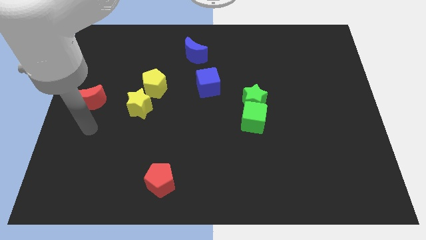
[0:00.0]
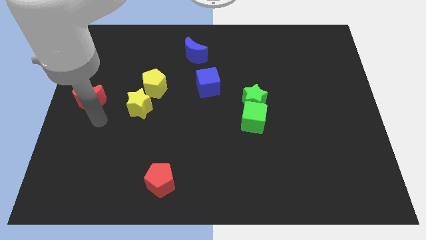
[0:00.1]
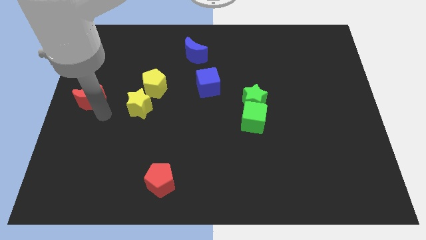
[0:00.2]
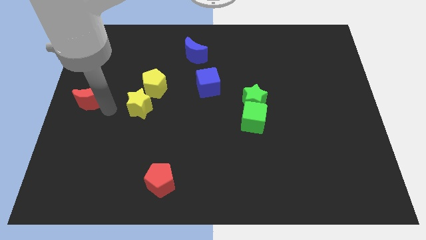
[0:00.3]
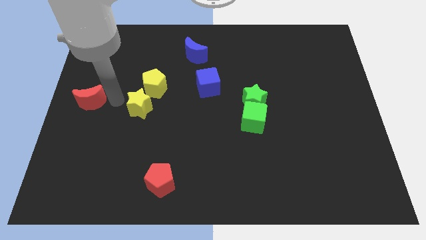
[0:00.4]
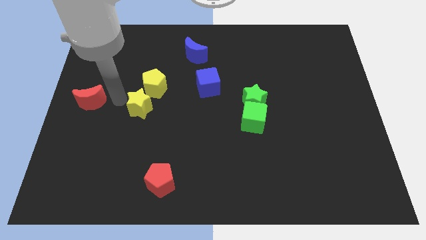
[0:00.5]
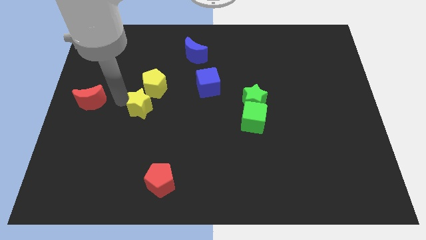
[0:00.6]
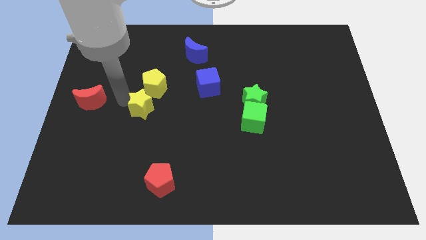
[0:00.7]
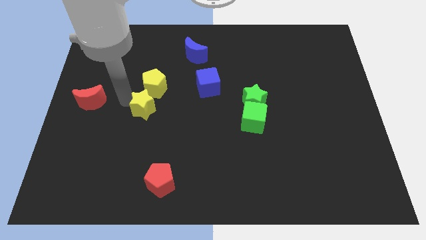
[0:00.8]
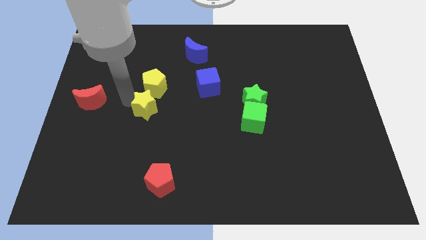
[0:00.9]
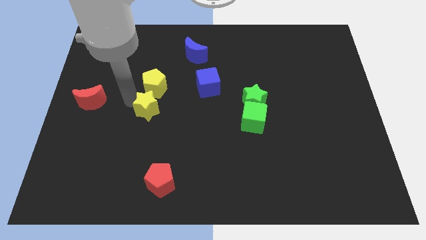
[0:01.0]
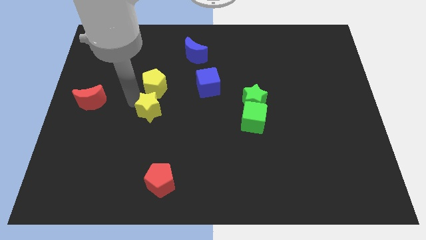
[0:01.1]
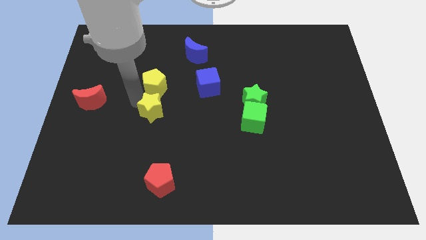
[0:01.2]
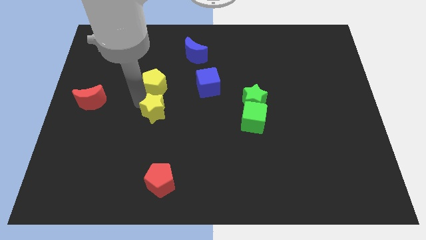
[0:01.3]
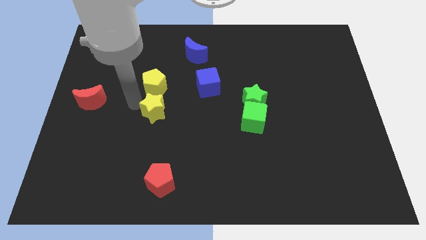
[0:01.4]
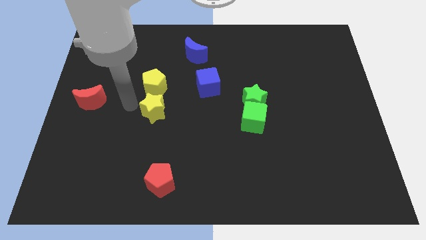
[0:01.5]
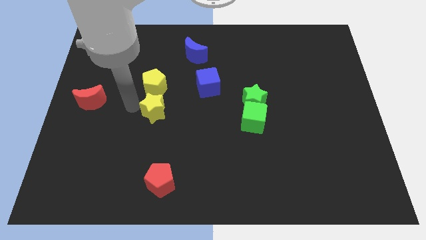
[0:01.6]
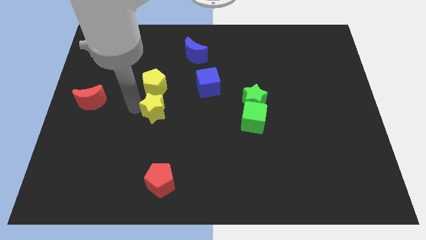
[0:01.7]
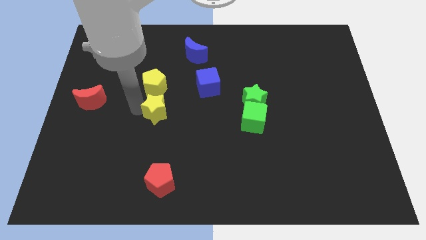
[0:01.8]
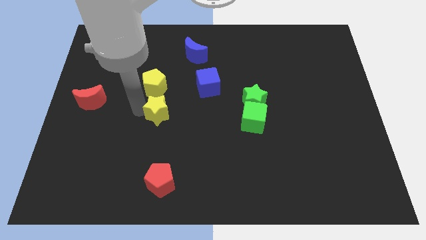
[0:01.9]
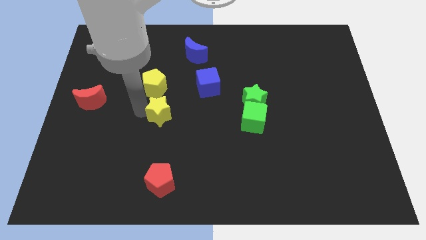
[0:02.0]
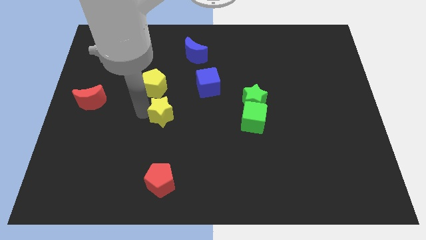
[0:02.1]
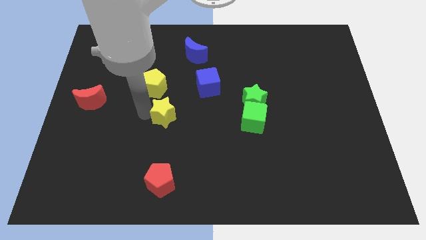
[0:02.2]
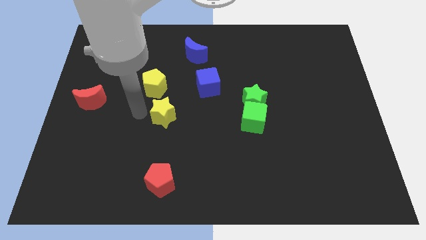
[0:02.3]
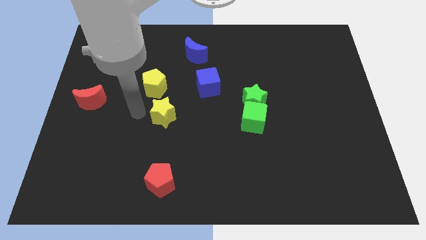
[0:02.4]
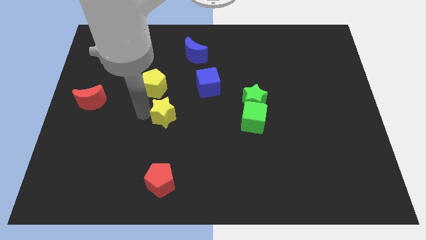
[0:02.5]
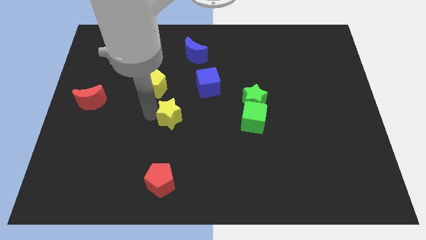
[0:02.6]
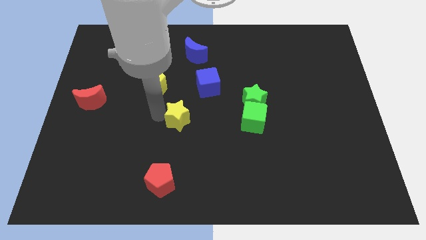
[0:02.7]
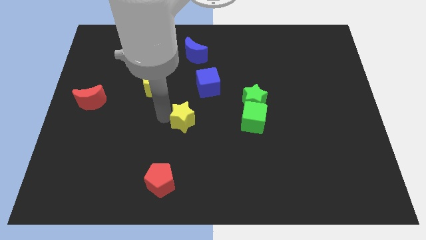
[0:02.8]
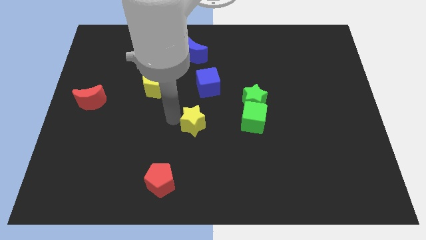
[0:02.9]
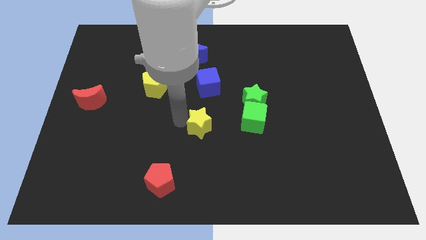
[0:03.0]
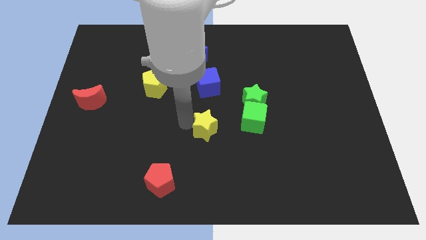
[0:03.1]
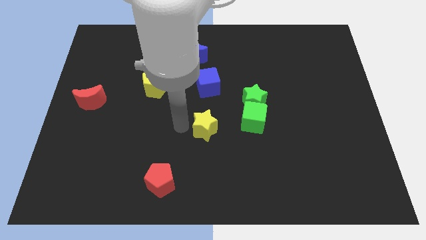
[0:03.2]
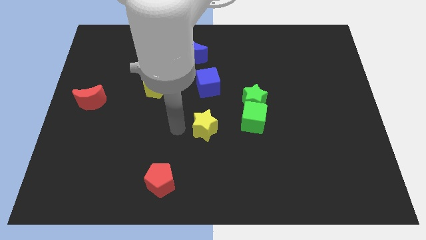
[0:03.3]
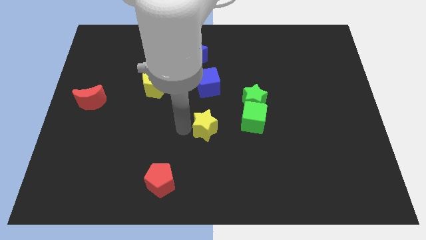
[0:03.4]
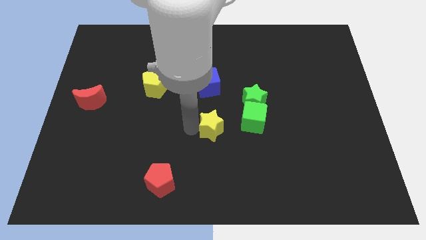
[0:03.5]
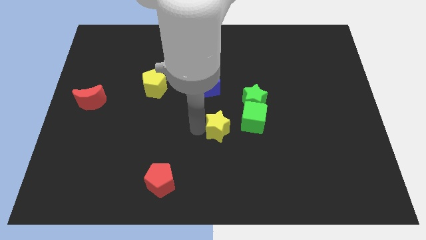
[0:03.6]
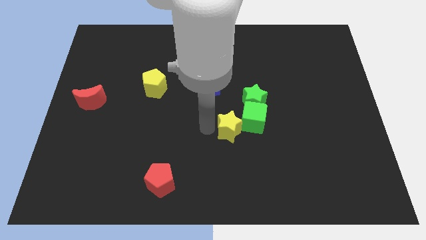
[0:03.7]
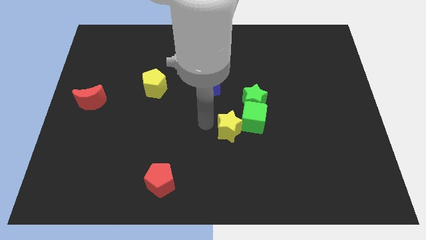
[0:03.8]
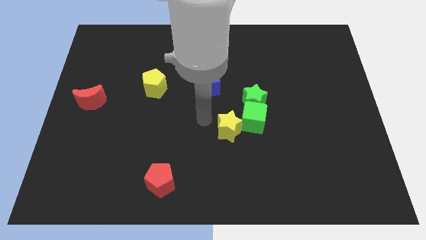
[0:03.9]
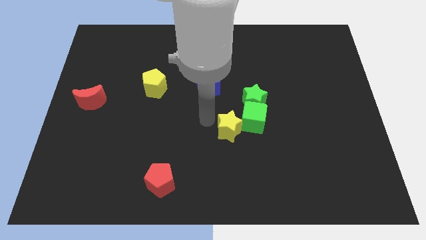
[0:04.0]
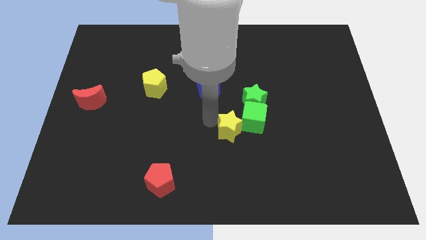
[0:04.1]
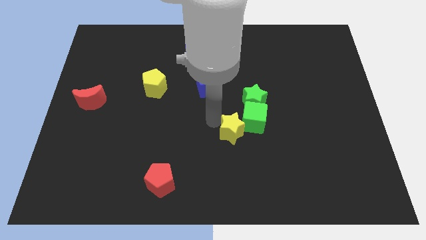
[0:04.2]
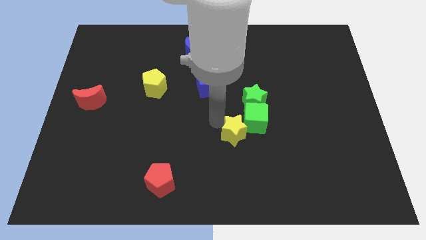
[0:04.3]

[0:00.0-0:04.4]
push the yellow star to the bottom of the green star

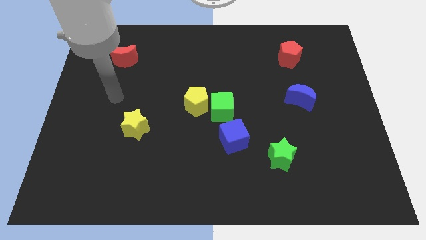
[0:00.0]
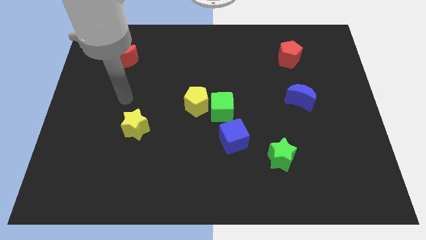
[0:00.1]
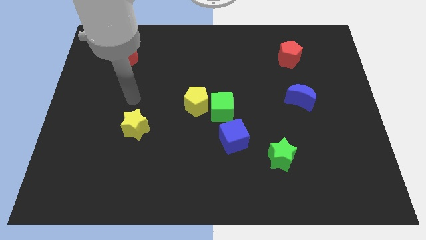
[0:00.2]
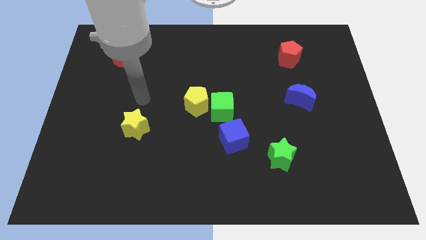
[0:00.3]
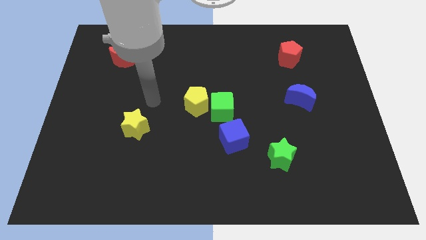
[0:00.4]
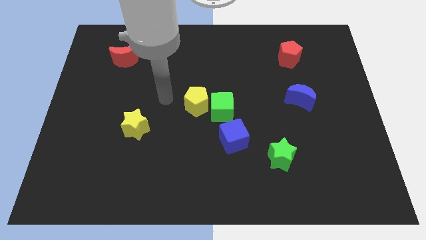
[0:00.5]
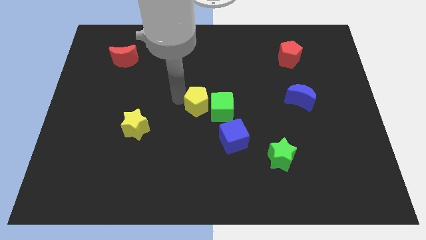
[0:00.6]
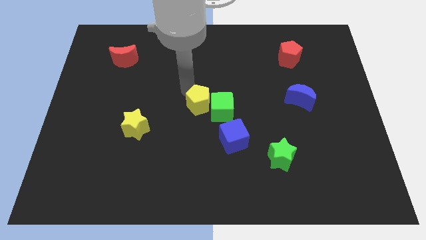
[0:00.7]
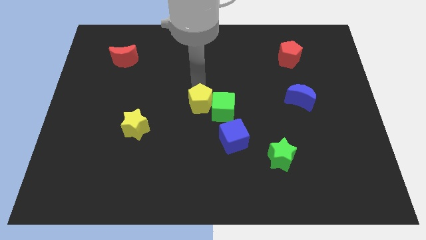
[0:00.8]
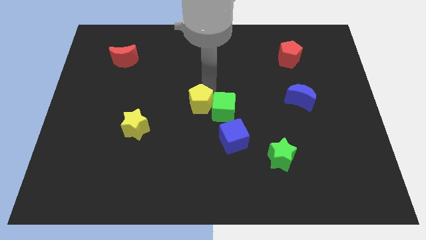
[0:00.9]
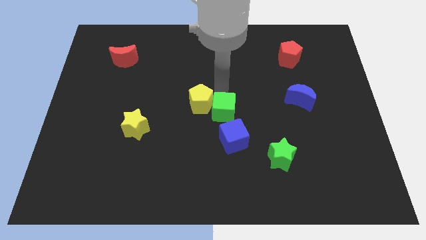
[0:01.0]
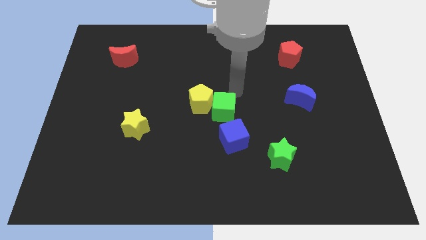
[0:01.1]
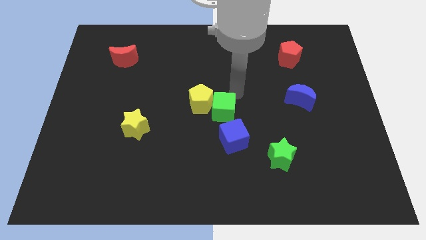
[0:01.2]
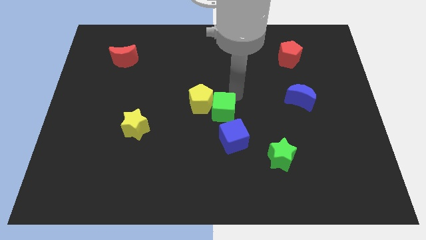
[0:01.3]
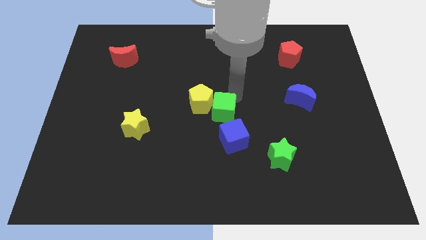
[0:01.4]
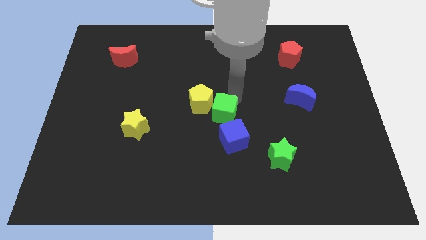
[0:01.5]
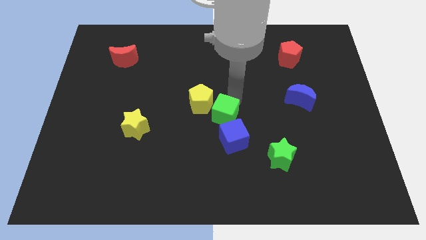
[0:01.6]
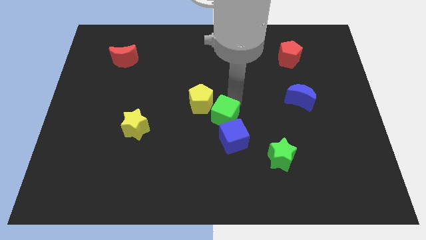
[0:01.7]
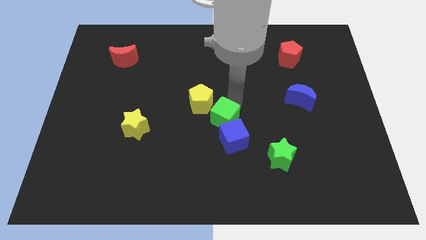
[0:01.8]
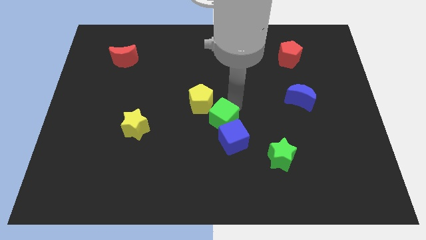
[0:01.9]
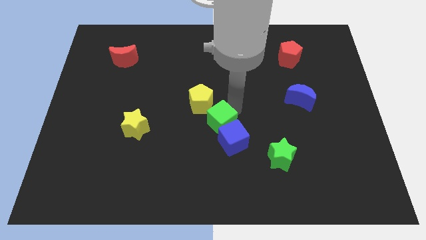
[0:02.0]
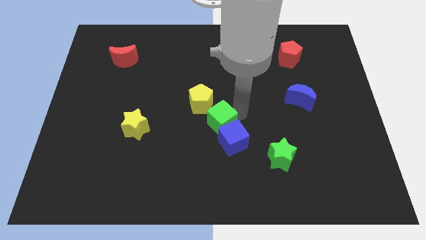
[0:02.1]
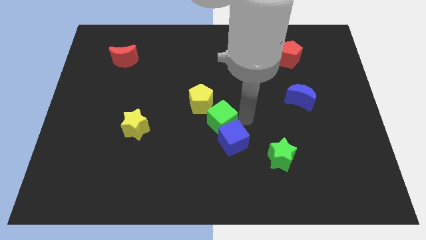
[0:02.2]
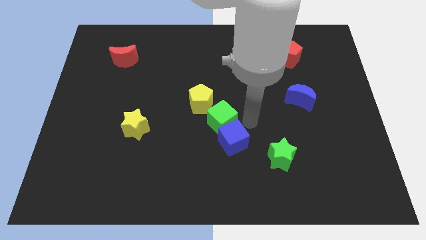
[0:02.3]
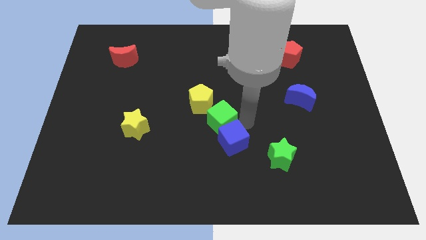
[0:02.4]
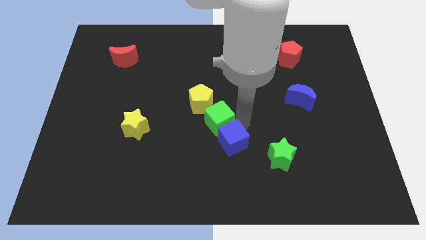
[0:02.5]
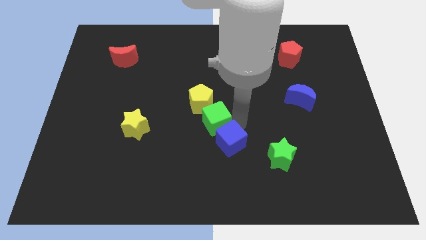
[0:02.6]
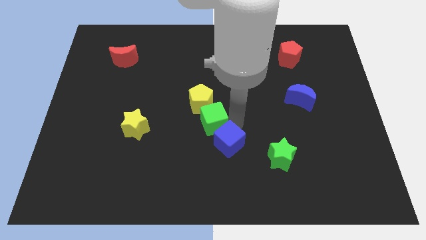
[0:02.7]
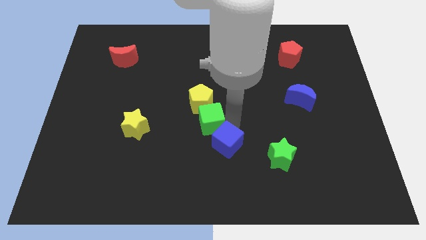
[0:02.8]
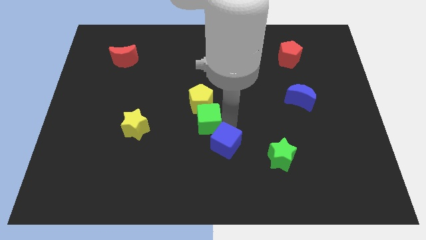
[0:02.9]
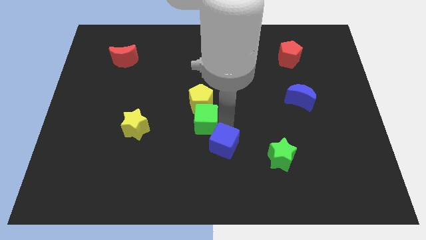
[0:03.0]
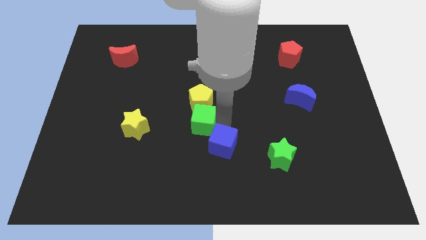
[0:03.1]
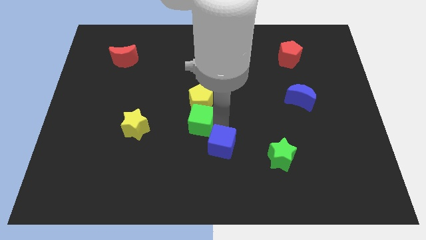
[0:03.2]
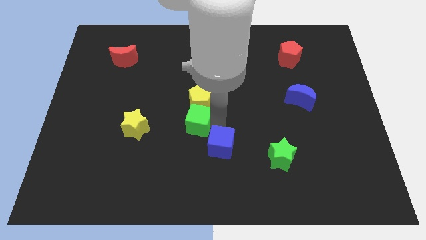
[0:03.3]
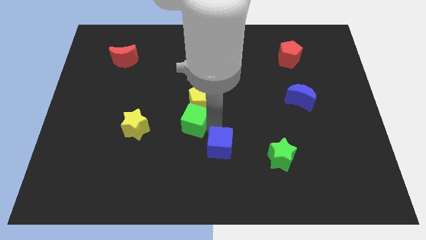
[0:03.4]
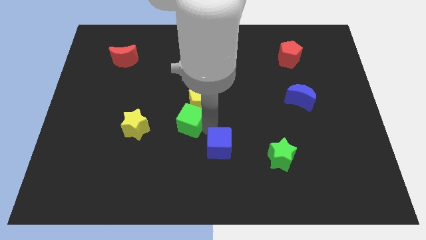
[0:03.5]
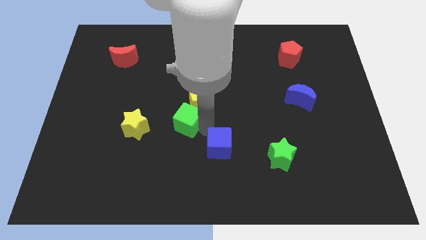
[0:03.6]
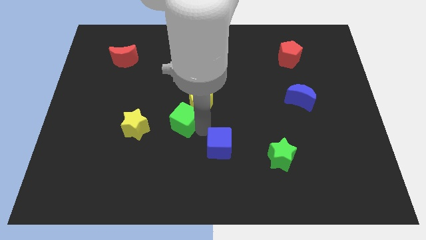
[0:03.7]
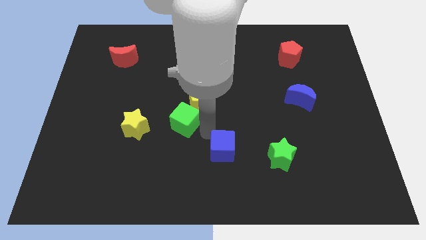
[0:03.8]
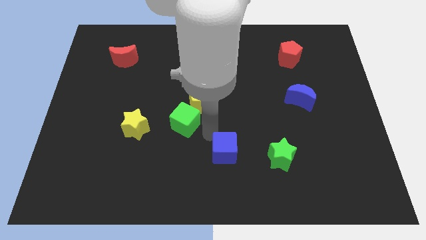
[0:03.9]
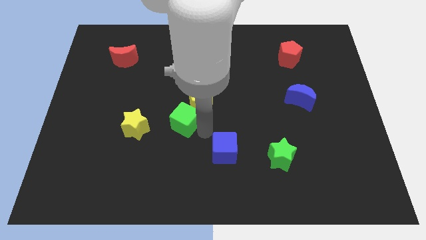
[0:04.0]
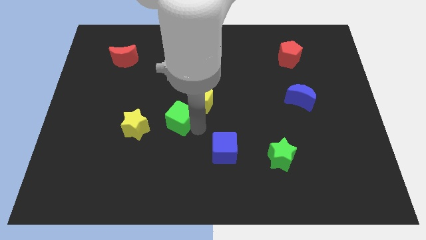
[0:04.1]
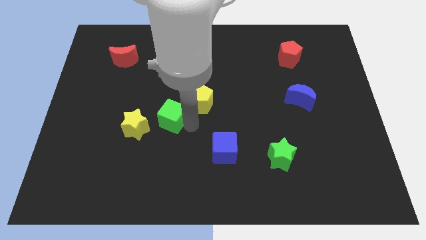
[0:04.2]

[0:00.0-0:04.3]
put the green cube just left of the yellow pentagon
